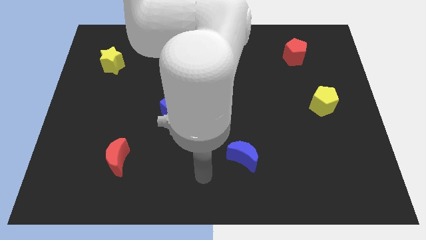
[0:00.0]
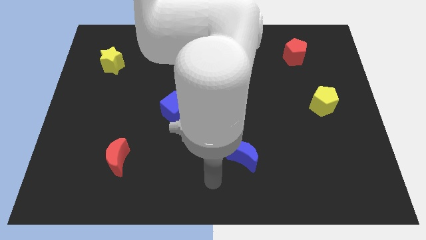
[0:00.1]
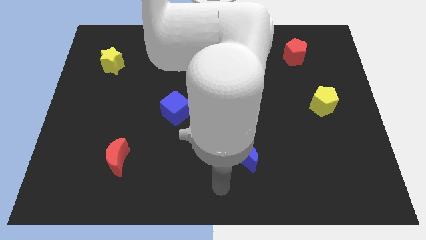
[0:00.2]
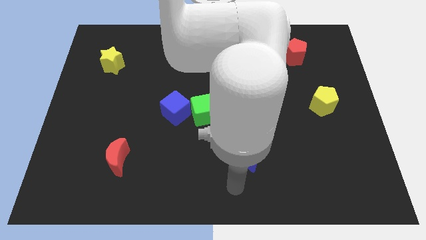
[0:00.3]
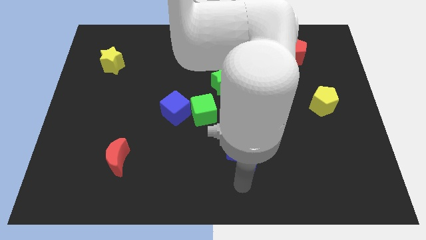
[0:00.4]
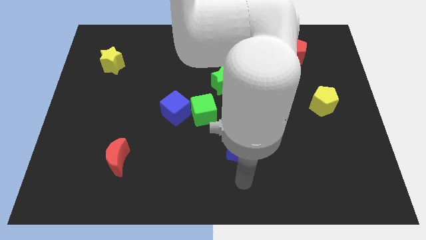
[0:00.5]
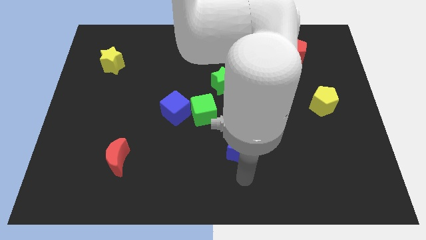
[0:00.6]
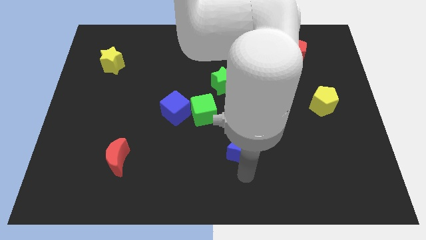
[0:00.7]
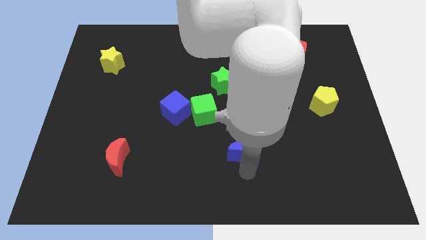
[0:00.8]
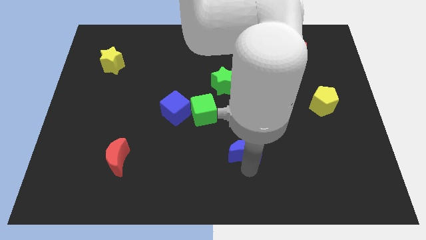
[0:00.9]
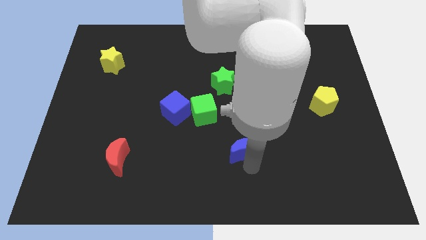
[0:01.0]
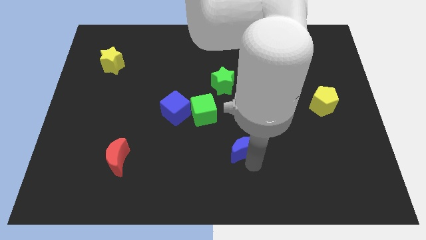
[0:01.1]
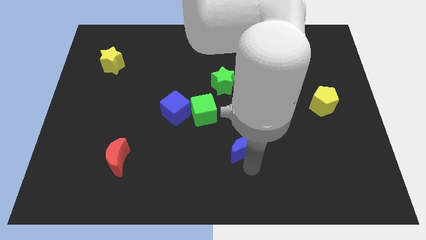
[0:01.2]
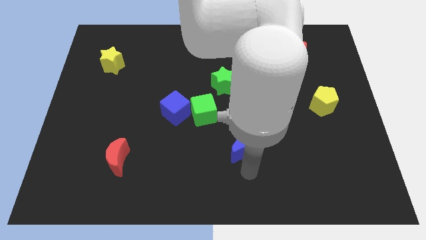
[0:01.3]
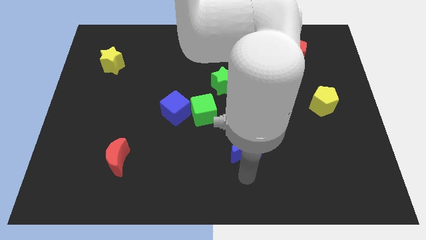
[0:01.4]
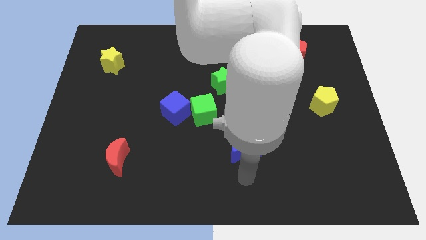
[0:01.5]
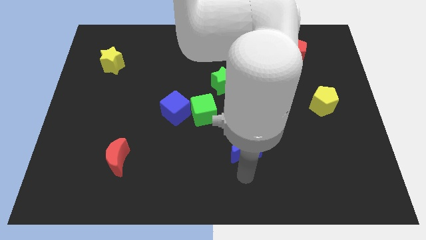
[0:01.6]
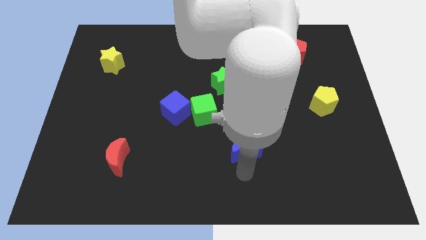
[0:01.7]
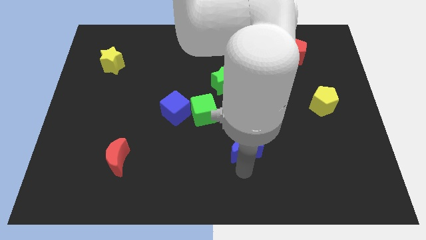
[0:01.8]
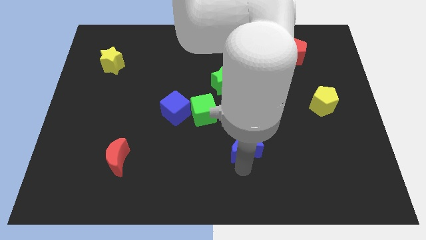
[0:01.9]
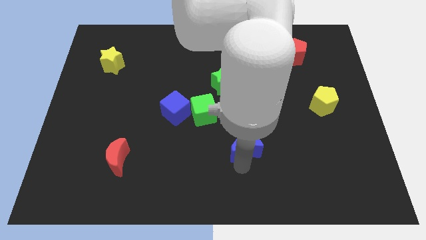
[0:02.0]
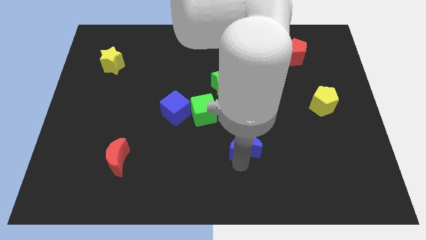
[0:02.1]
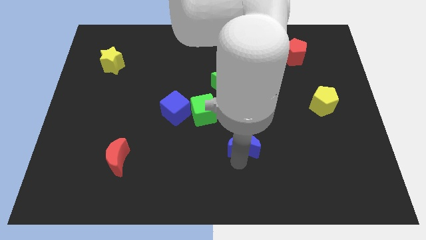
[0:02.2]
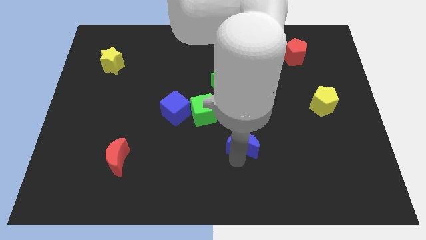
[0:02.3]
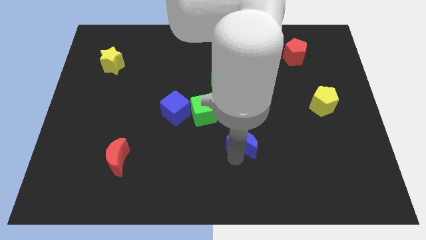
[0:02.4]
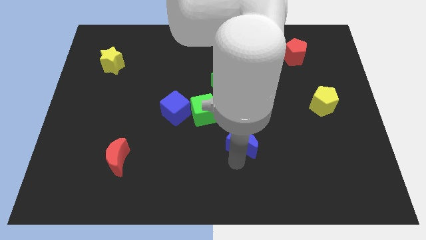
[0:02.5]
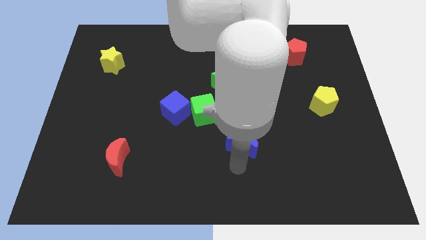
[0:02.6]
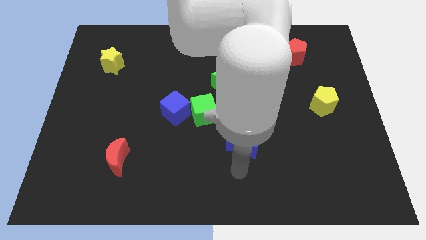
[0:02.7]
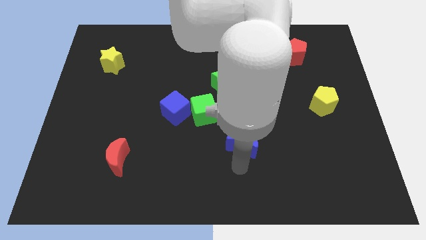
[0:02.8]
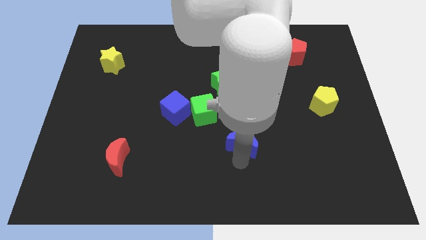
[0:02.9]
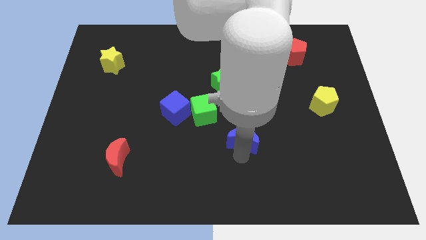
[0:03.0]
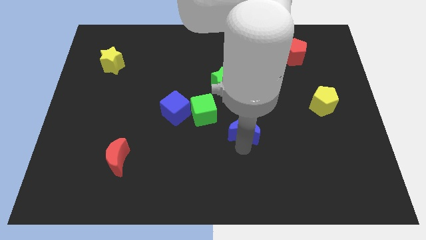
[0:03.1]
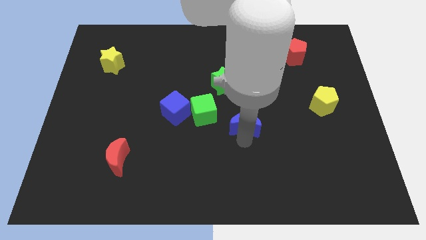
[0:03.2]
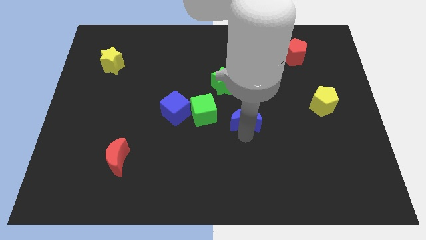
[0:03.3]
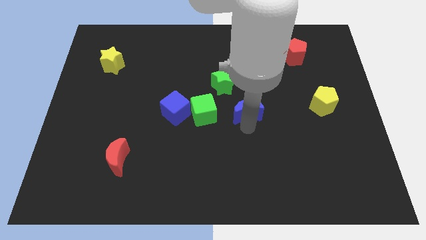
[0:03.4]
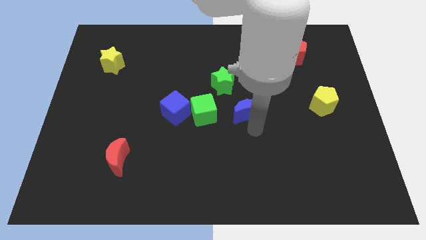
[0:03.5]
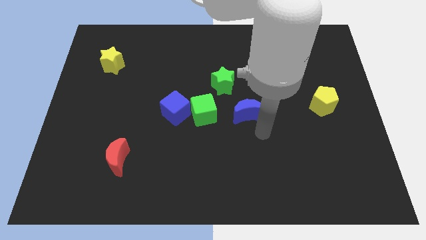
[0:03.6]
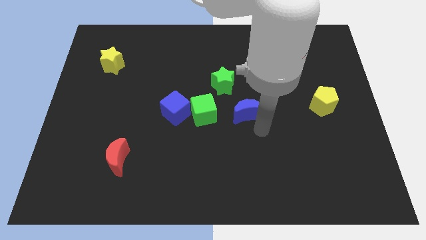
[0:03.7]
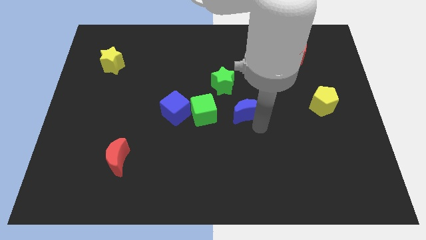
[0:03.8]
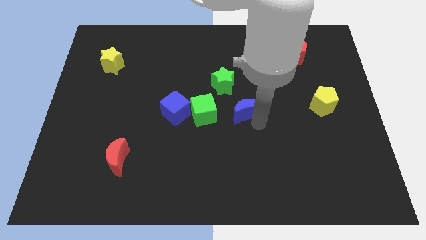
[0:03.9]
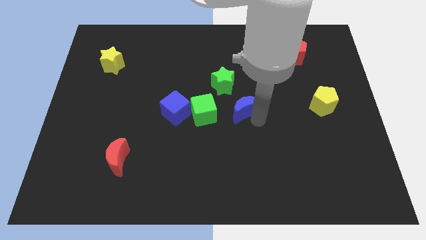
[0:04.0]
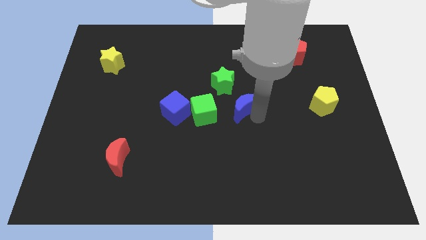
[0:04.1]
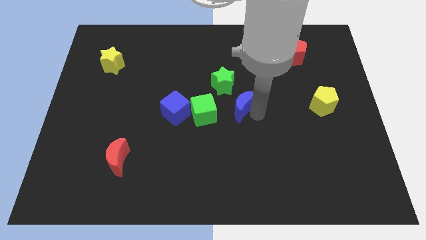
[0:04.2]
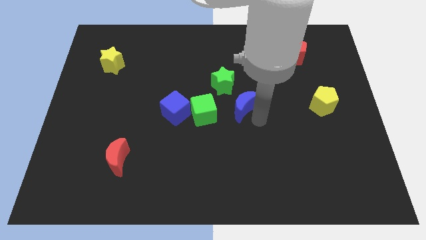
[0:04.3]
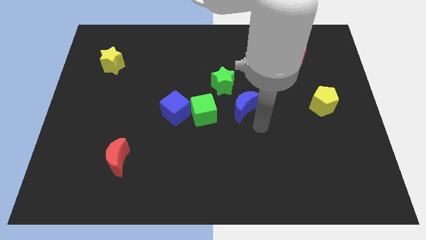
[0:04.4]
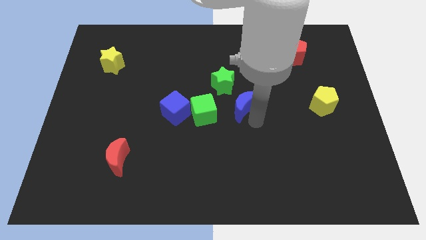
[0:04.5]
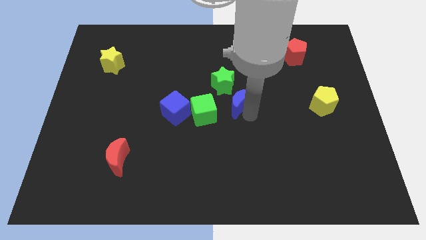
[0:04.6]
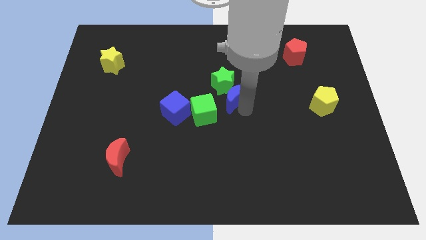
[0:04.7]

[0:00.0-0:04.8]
move the blue moon towards the green star

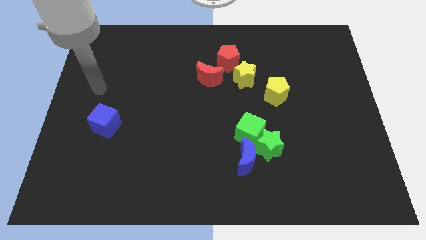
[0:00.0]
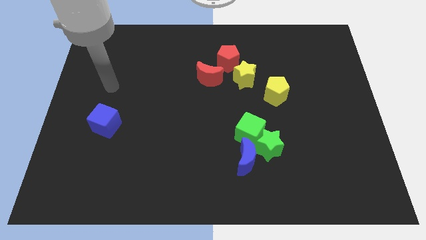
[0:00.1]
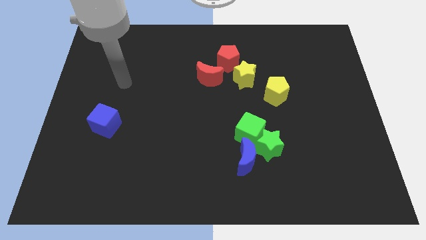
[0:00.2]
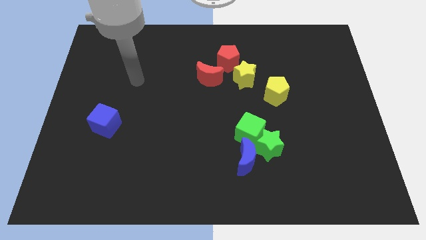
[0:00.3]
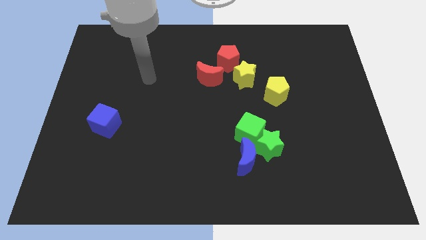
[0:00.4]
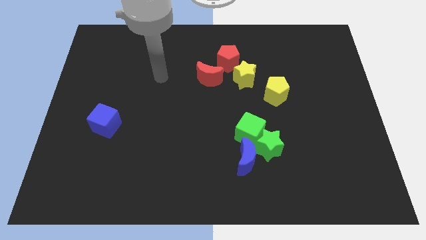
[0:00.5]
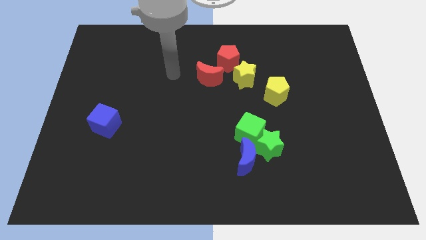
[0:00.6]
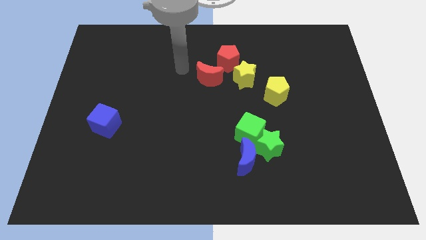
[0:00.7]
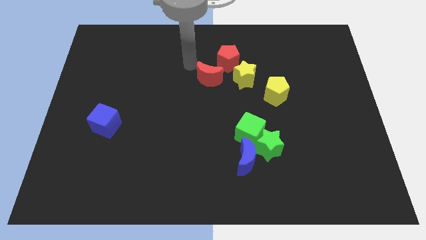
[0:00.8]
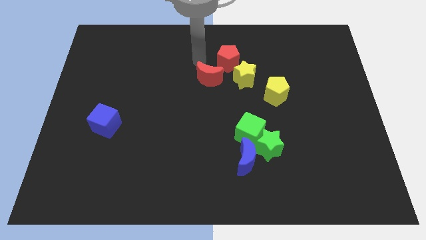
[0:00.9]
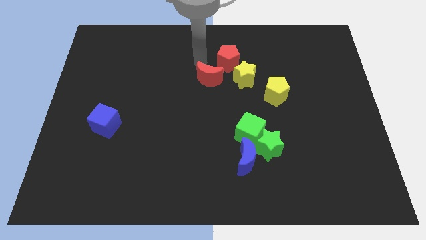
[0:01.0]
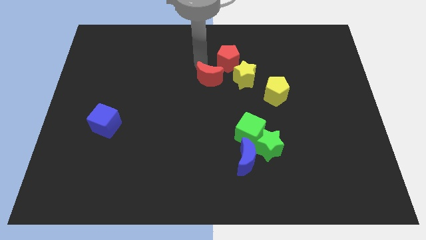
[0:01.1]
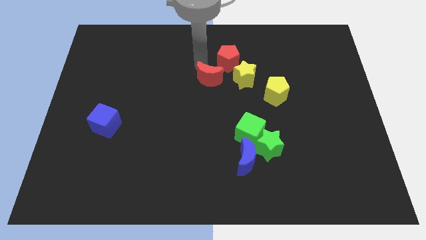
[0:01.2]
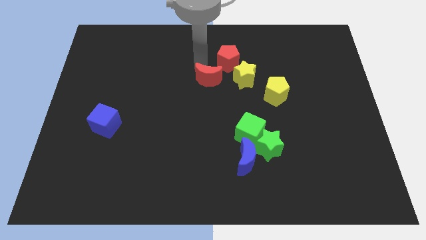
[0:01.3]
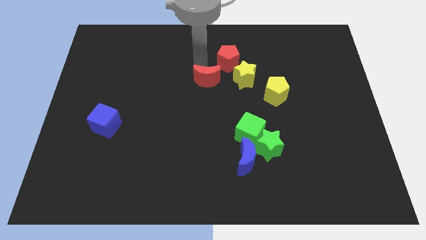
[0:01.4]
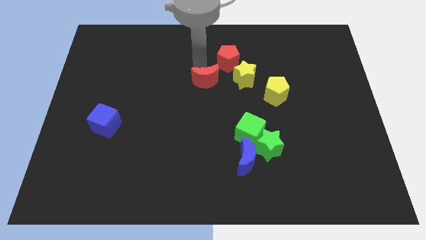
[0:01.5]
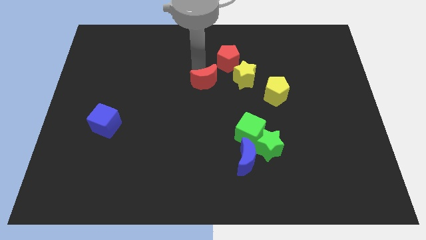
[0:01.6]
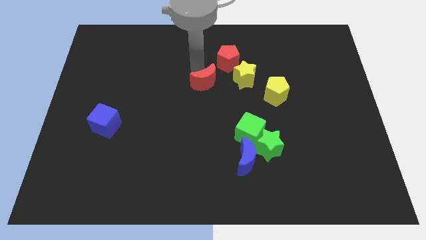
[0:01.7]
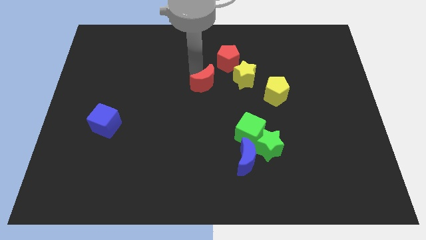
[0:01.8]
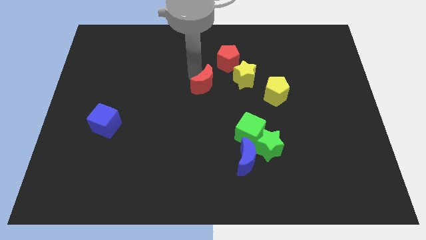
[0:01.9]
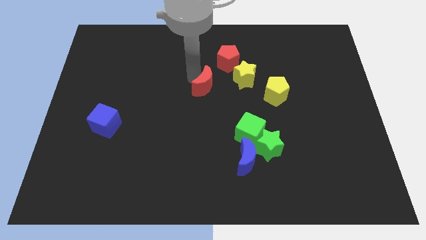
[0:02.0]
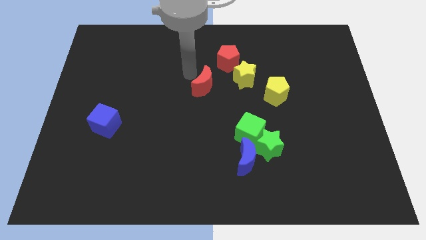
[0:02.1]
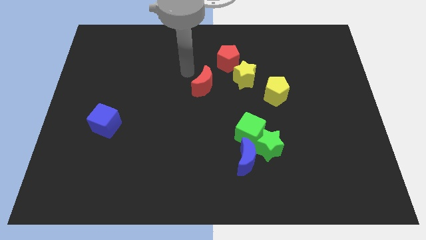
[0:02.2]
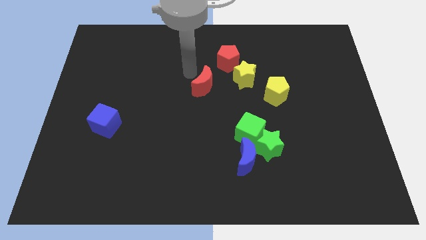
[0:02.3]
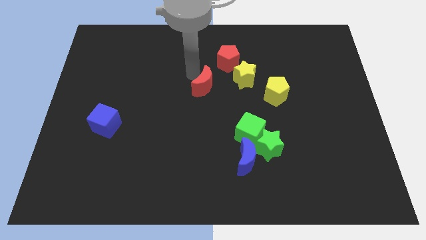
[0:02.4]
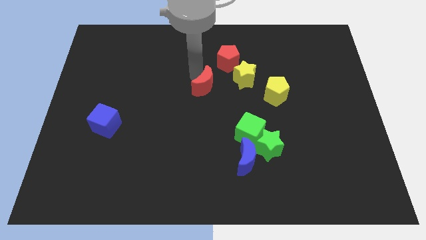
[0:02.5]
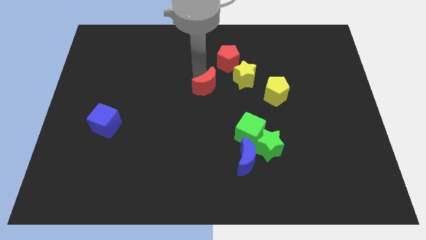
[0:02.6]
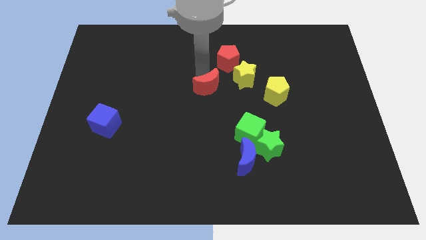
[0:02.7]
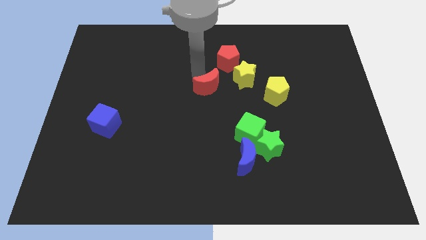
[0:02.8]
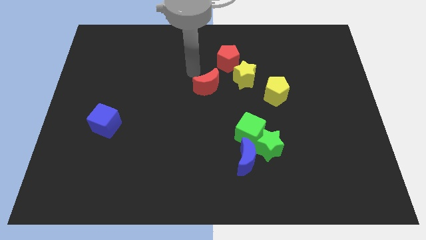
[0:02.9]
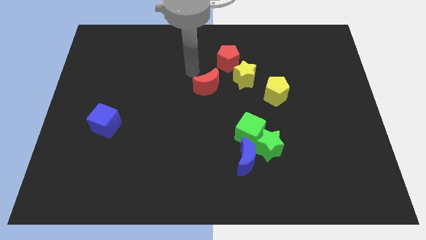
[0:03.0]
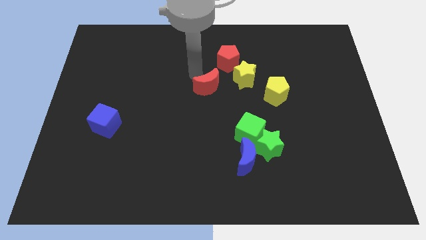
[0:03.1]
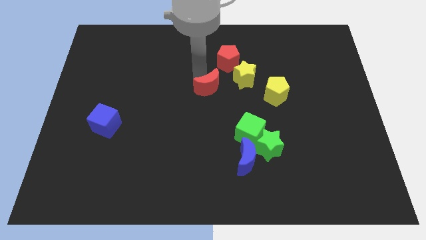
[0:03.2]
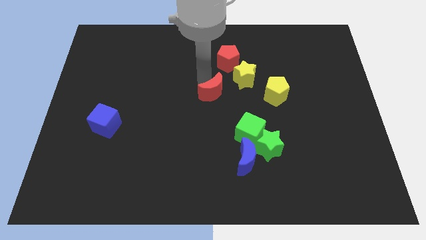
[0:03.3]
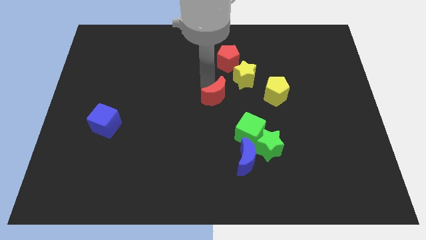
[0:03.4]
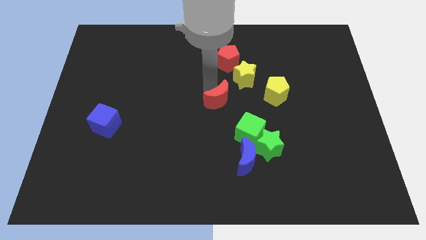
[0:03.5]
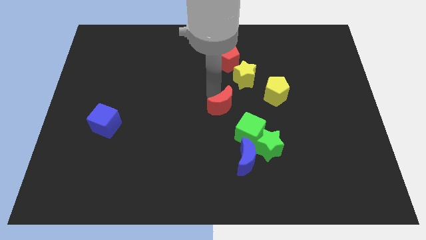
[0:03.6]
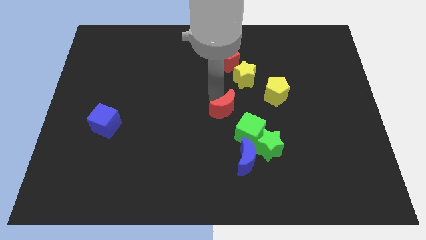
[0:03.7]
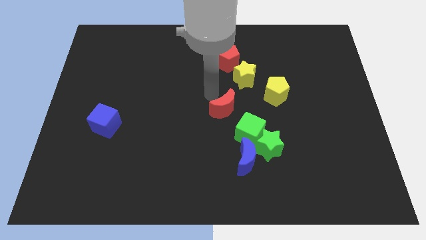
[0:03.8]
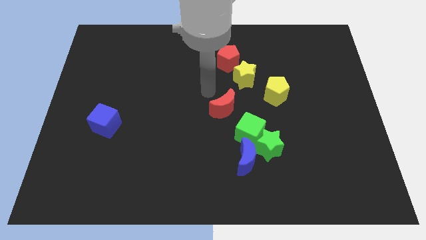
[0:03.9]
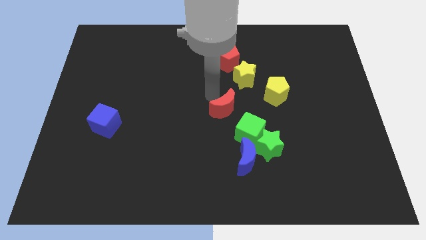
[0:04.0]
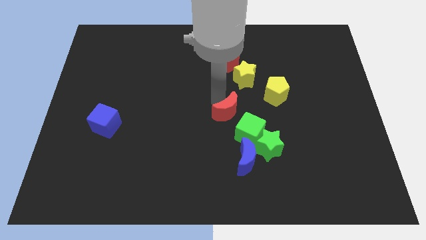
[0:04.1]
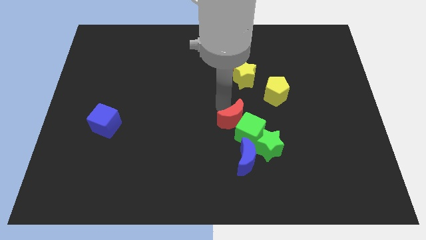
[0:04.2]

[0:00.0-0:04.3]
move the red moon close to the green cube
